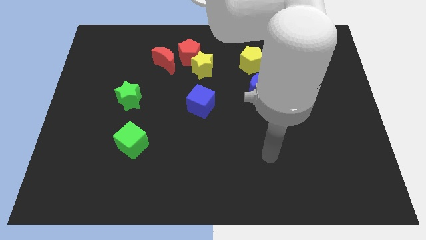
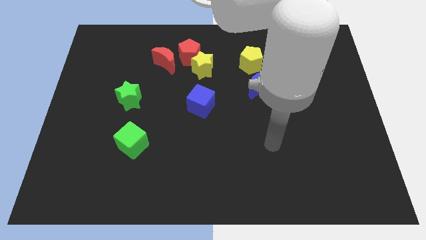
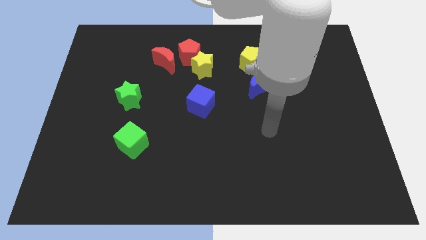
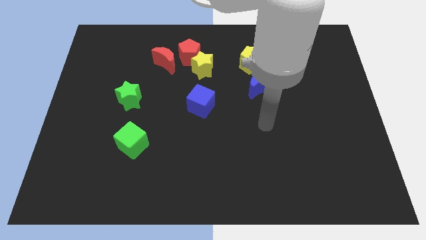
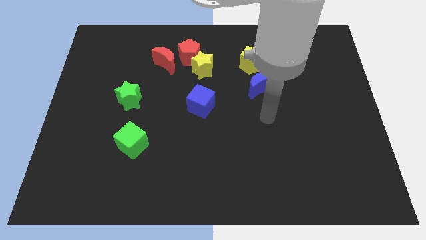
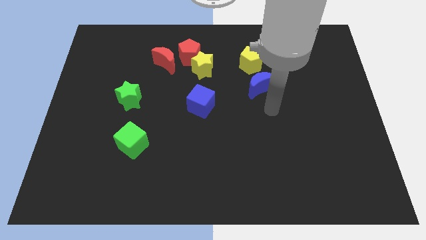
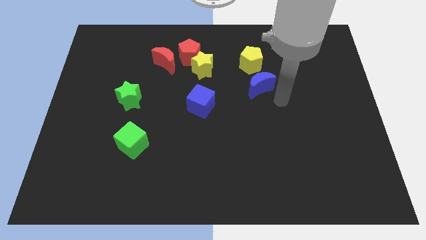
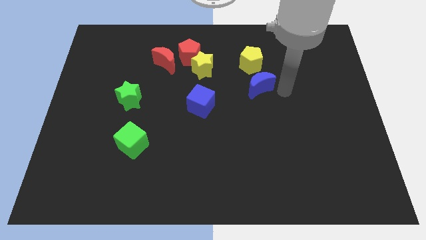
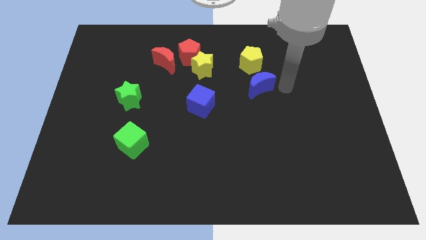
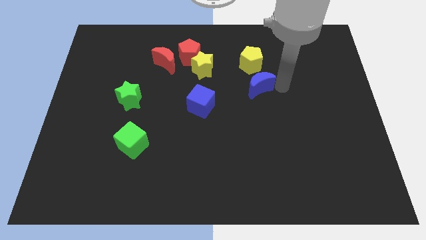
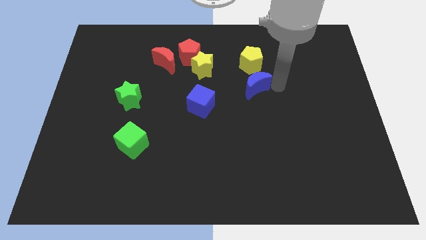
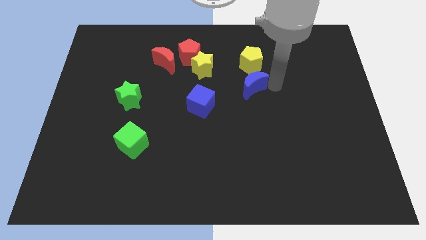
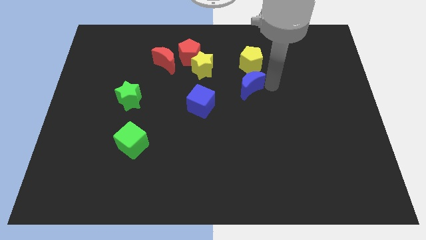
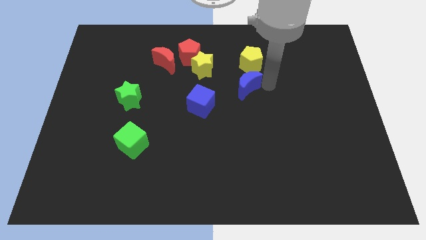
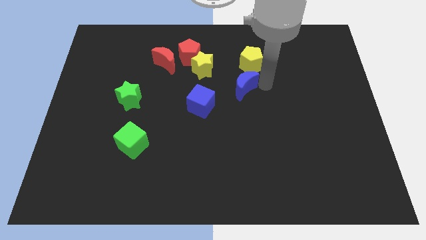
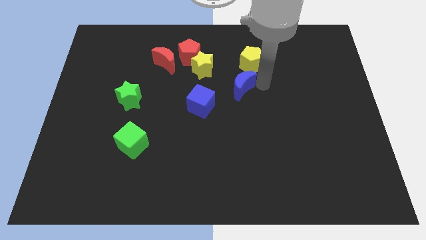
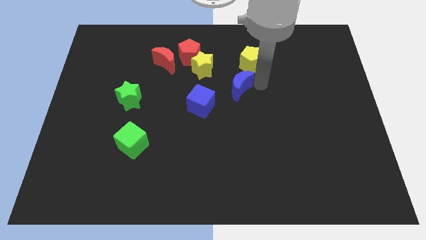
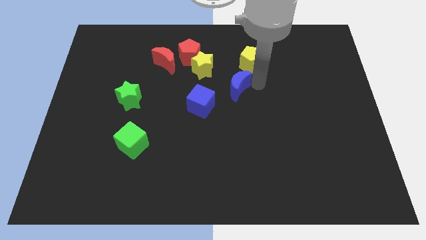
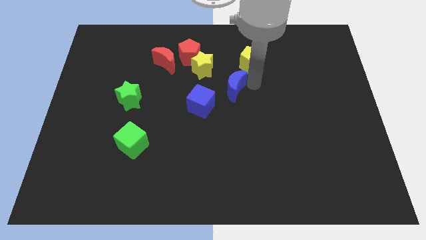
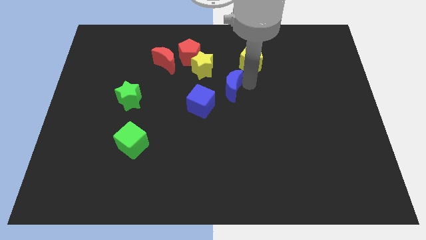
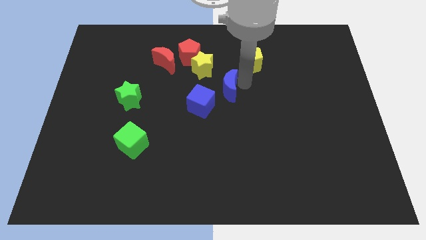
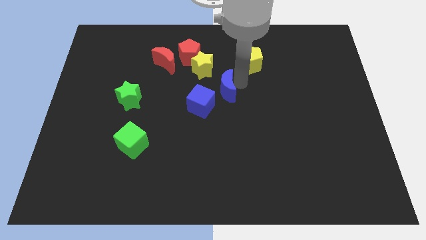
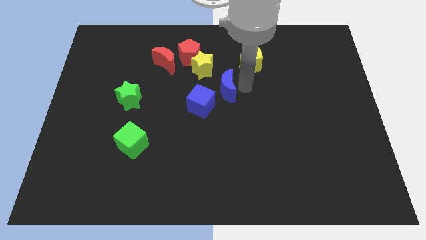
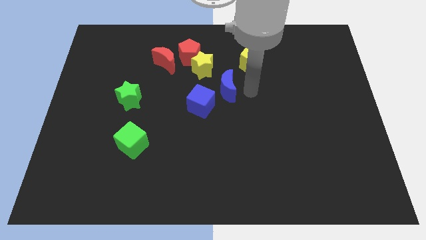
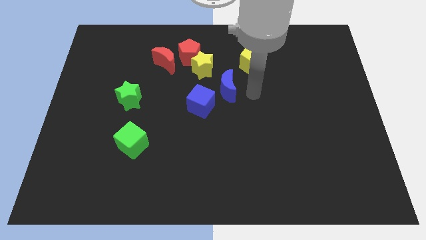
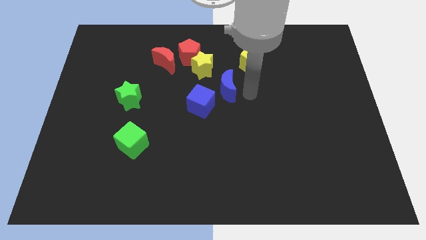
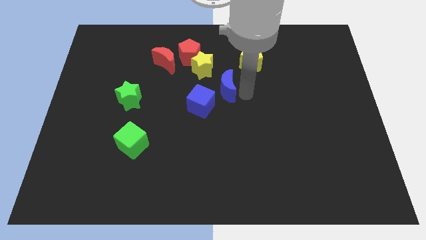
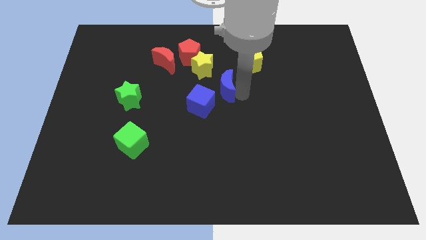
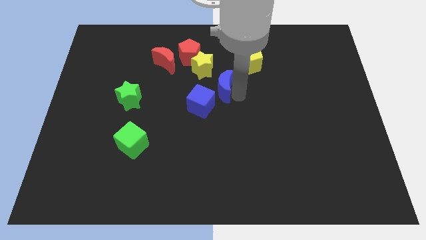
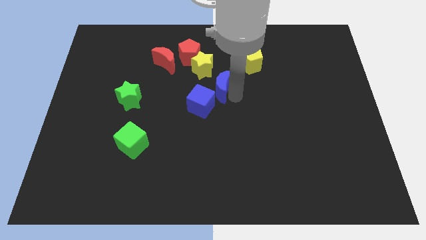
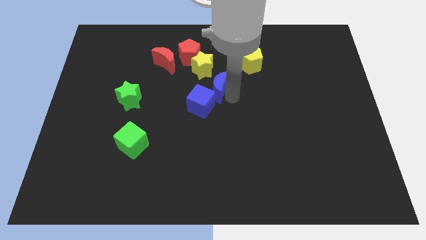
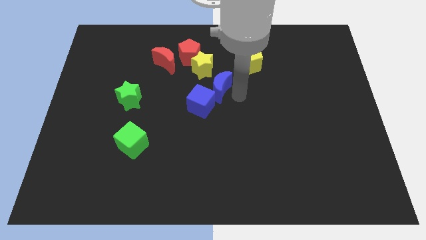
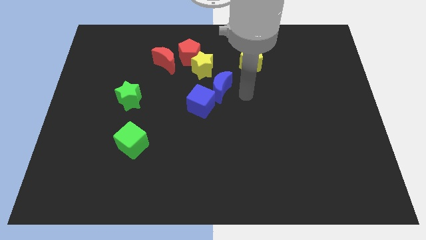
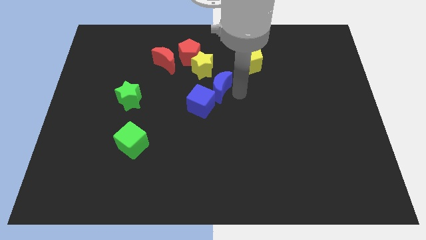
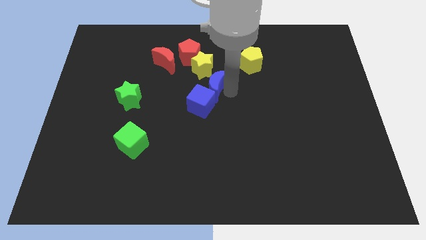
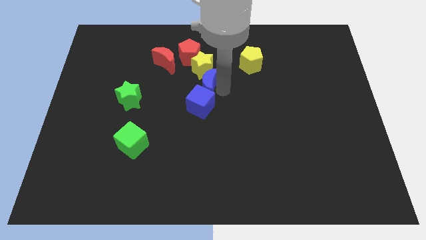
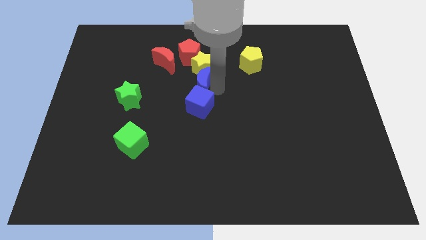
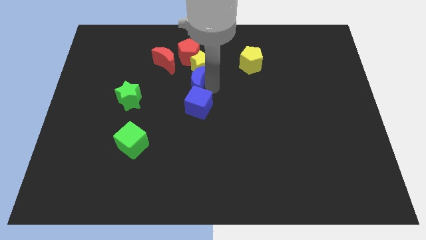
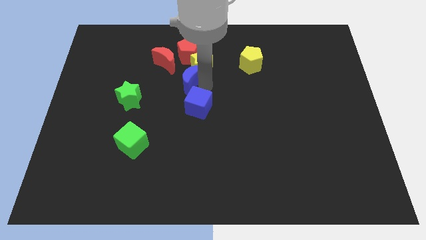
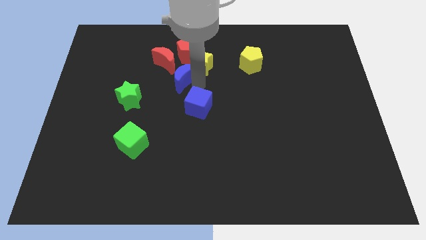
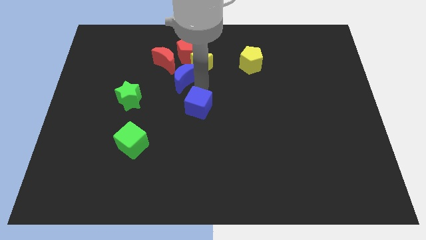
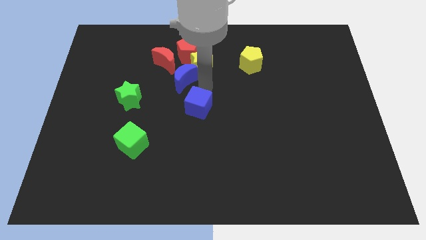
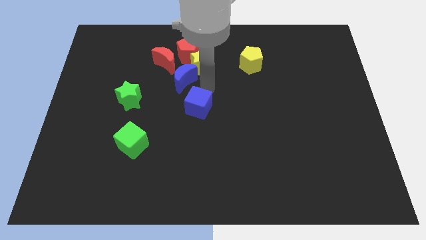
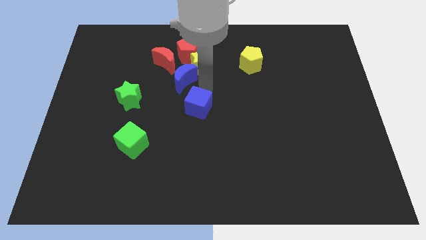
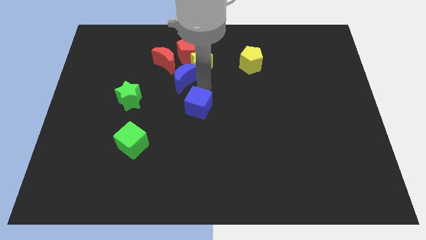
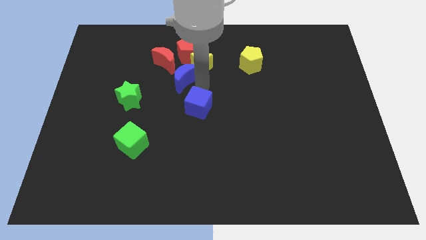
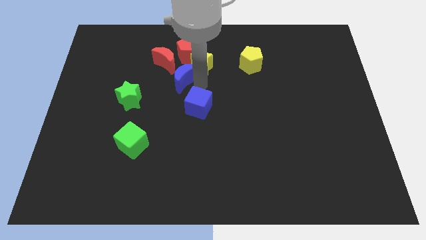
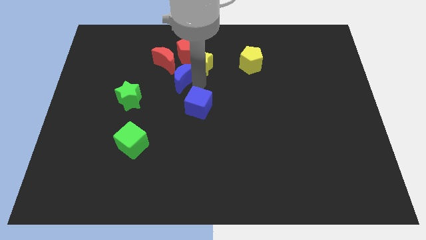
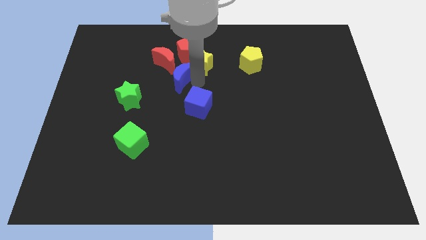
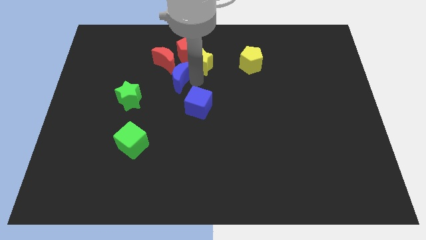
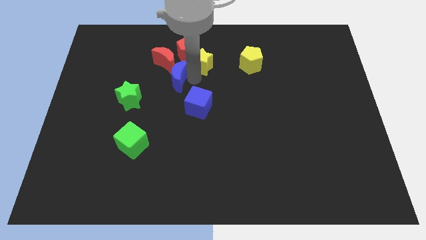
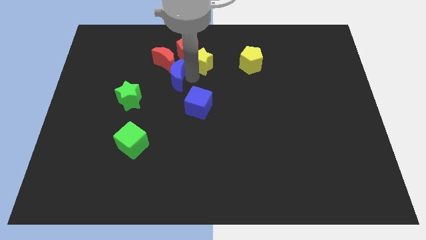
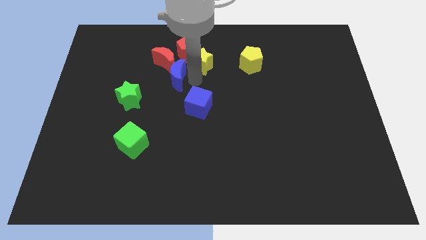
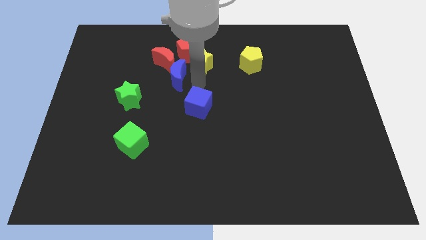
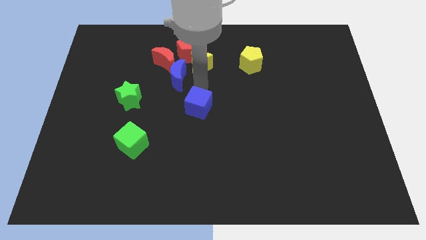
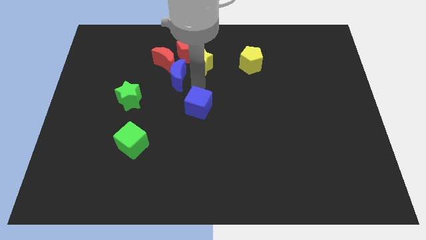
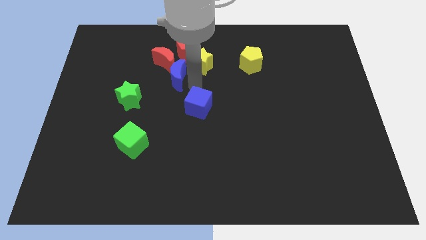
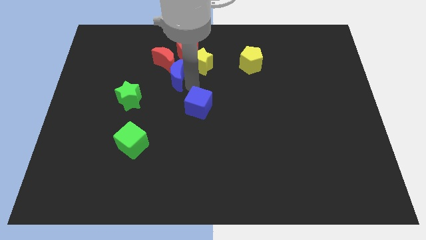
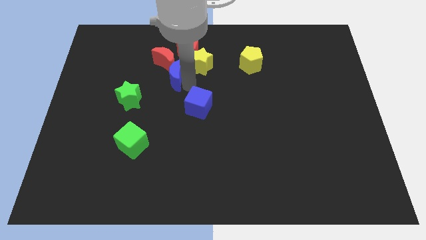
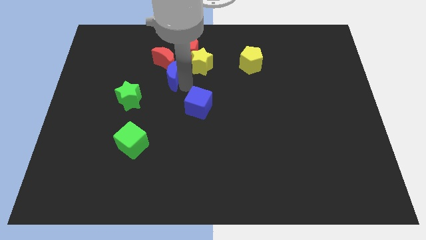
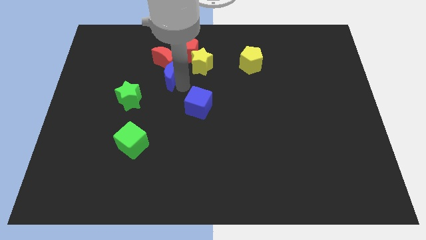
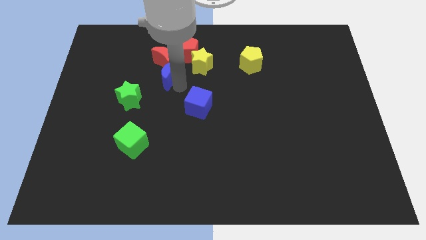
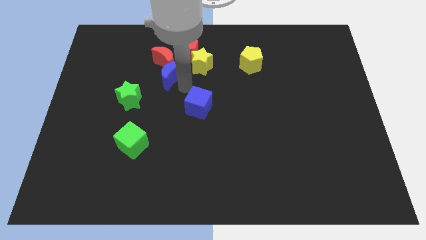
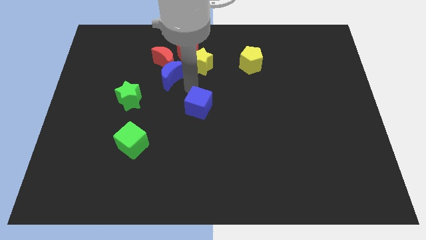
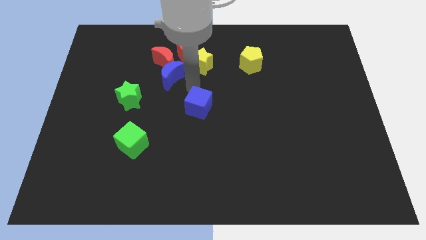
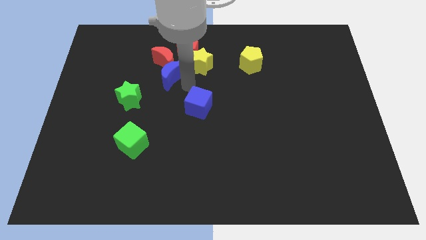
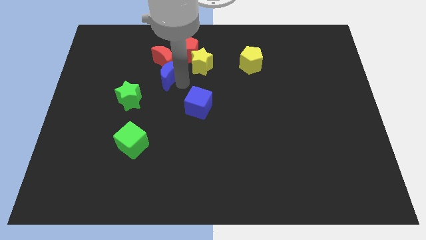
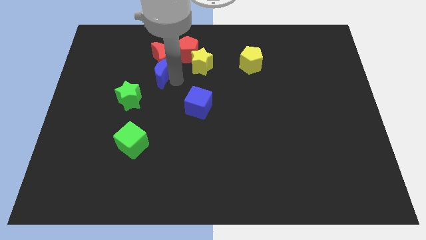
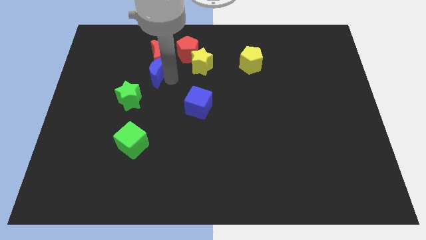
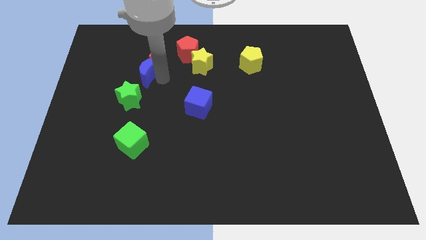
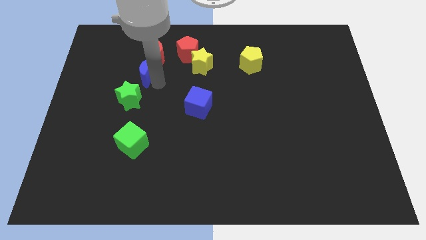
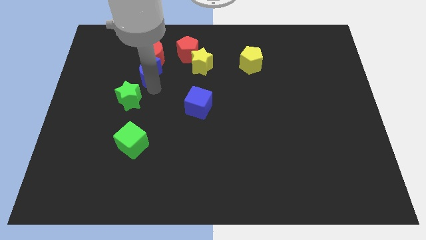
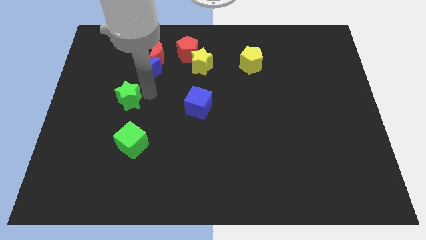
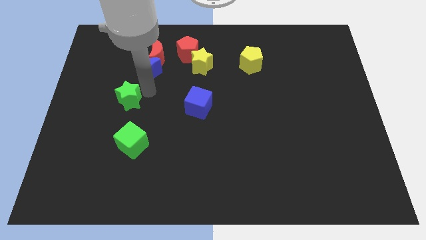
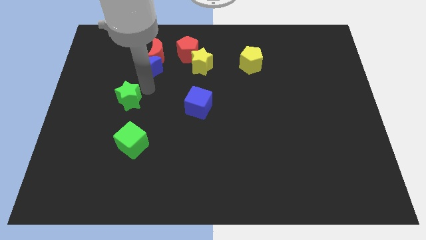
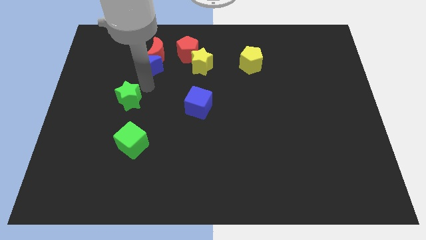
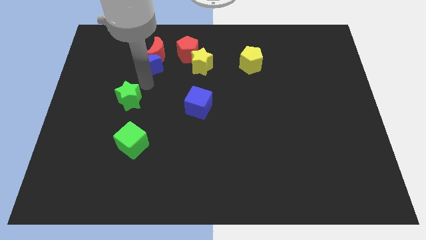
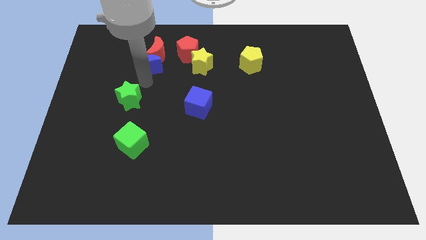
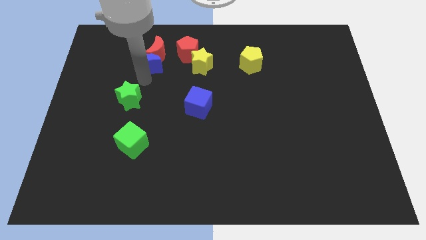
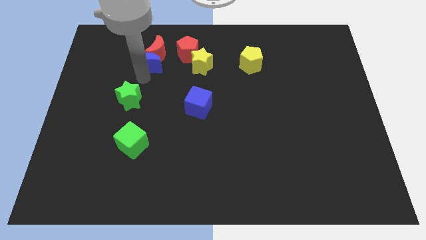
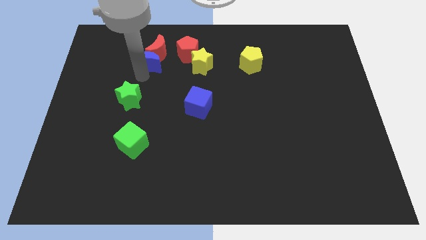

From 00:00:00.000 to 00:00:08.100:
put the blue moon to the left side of the red pentagon
